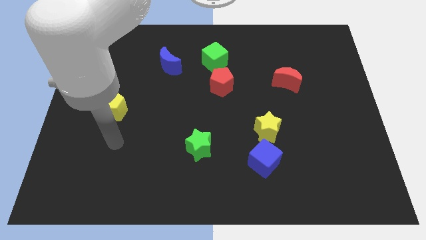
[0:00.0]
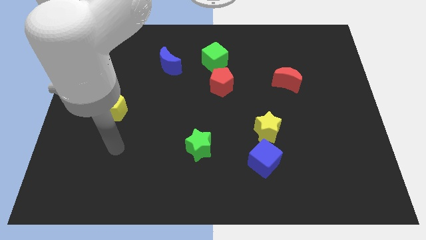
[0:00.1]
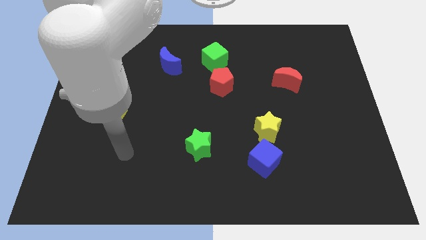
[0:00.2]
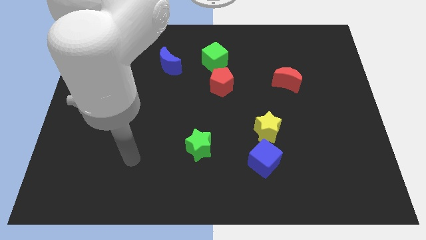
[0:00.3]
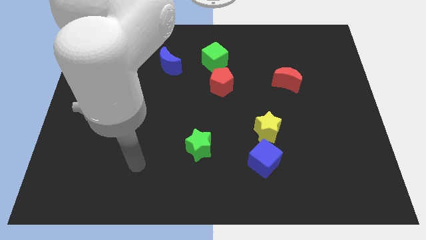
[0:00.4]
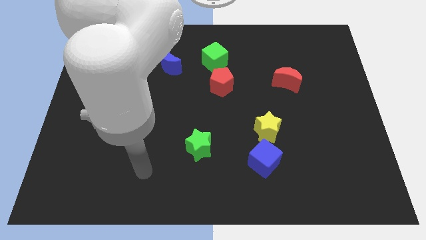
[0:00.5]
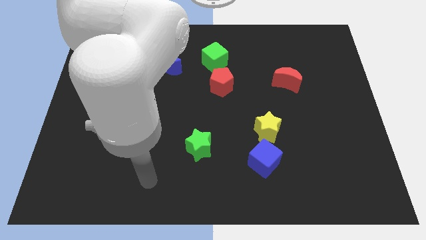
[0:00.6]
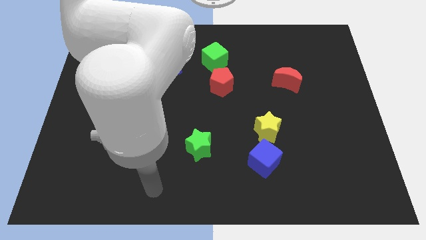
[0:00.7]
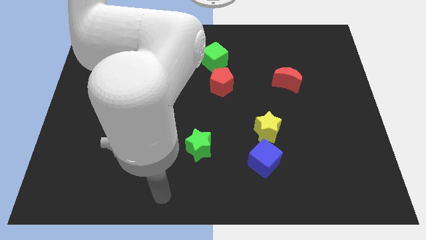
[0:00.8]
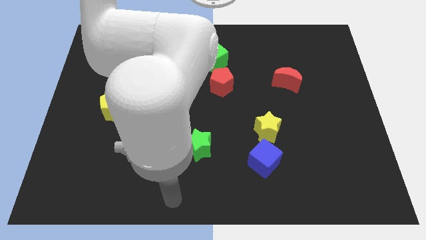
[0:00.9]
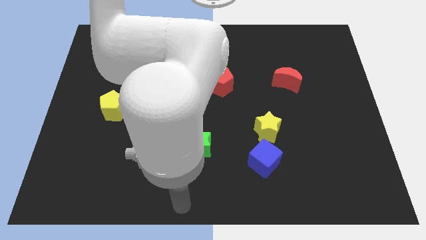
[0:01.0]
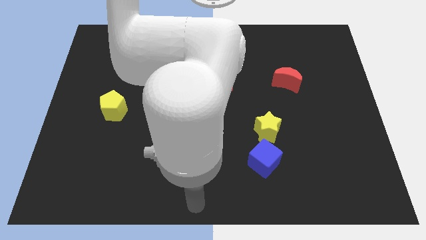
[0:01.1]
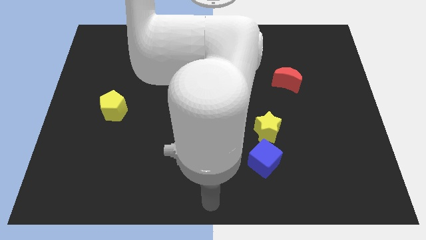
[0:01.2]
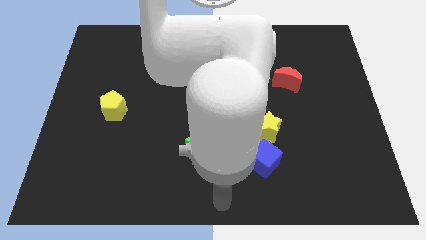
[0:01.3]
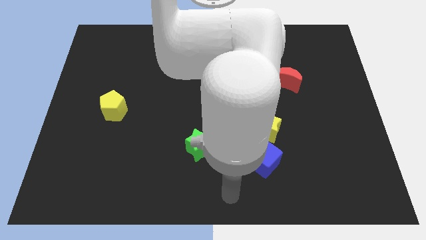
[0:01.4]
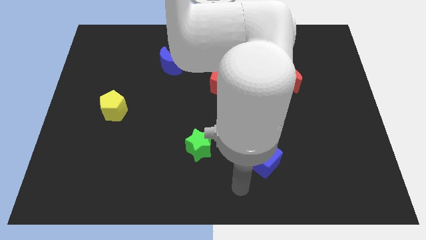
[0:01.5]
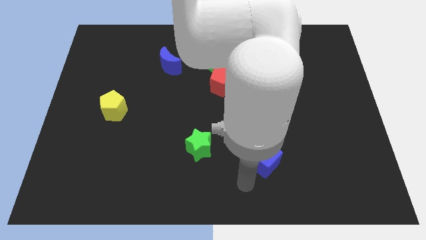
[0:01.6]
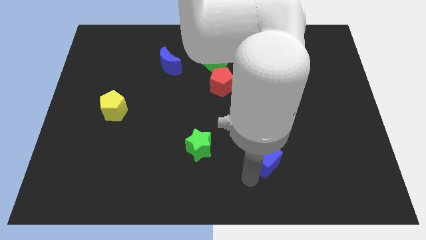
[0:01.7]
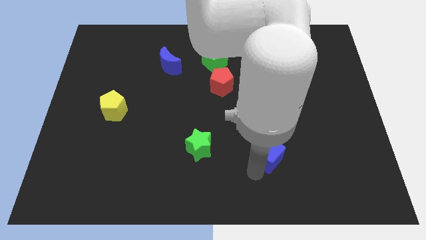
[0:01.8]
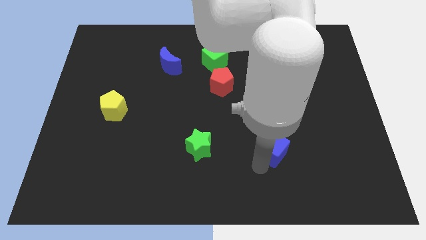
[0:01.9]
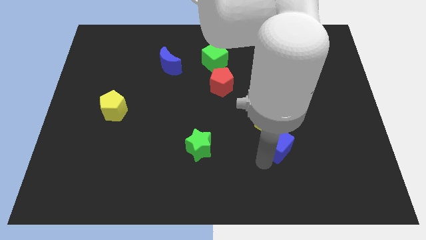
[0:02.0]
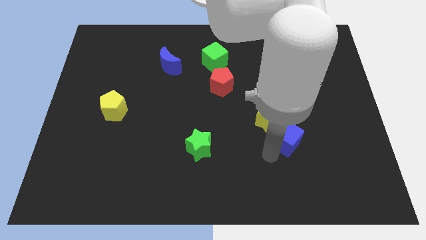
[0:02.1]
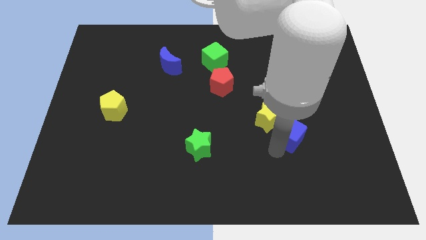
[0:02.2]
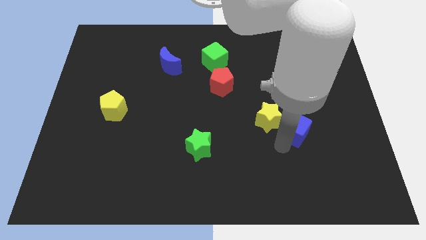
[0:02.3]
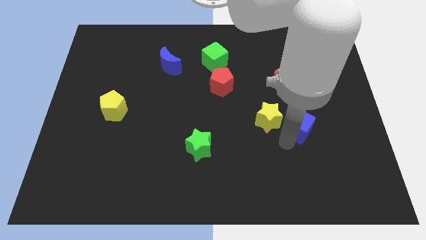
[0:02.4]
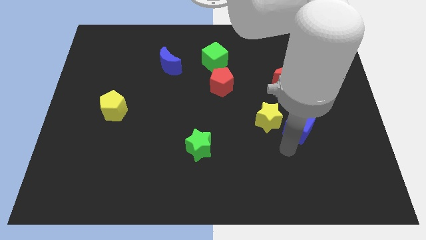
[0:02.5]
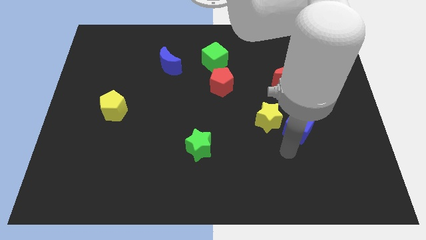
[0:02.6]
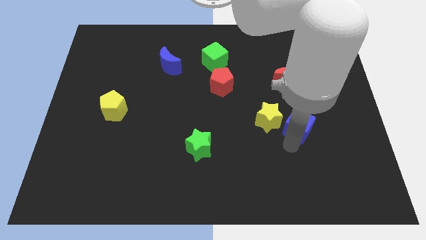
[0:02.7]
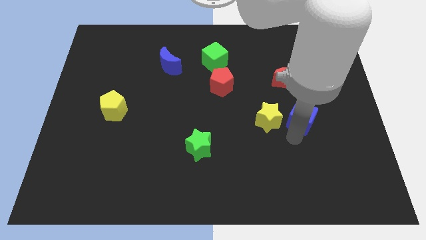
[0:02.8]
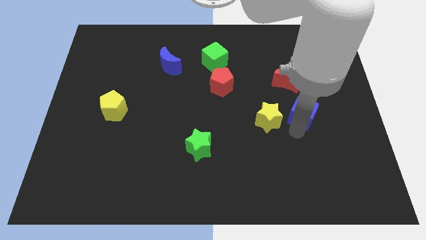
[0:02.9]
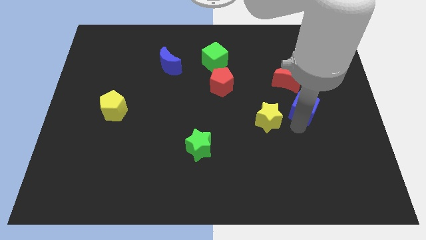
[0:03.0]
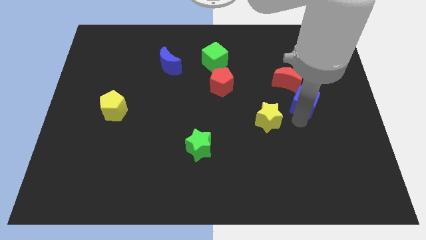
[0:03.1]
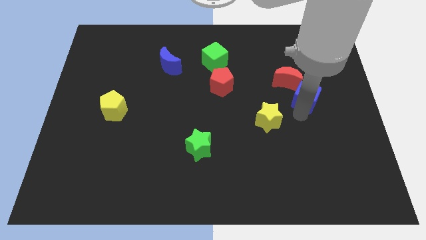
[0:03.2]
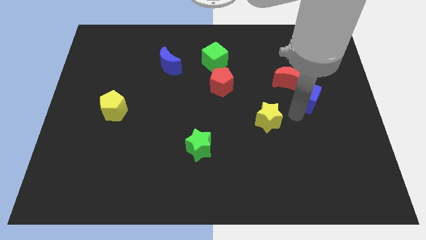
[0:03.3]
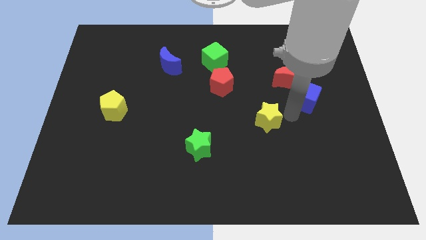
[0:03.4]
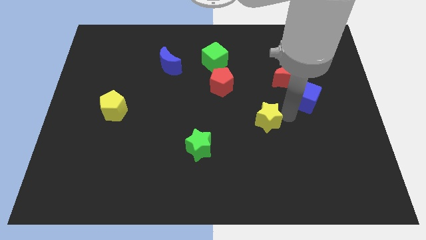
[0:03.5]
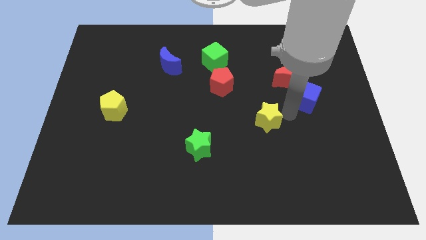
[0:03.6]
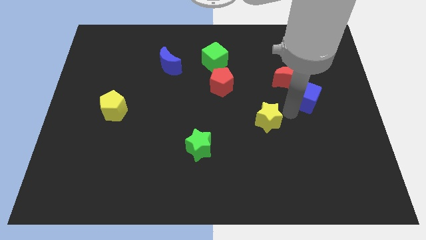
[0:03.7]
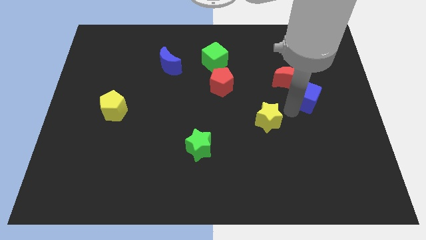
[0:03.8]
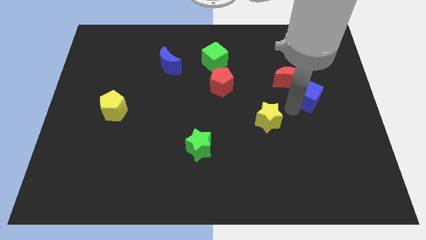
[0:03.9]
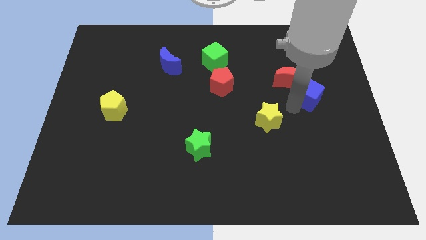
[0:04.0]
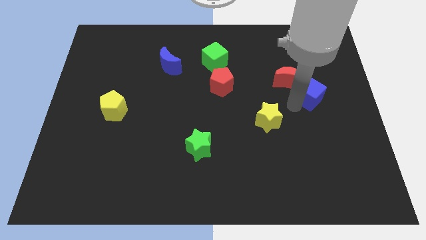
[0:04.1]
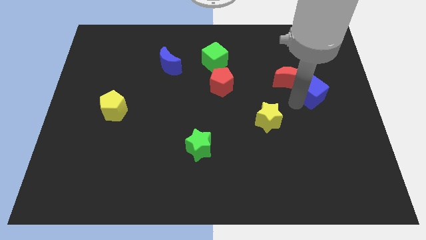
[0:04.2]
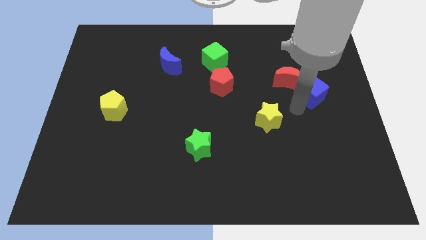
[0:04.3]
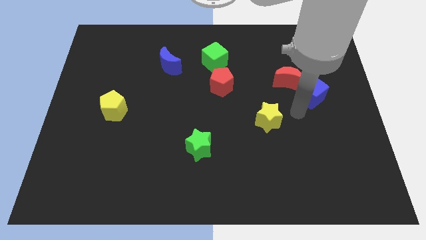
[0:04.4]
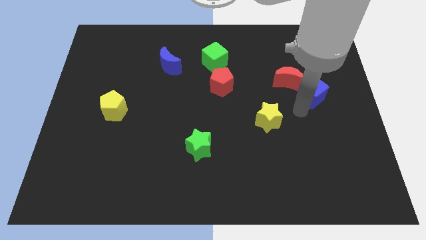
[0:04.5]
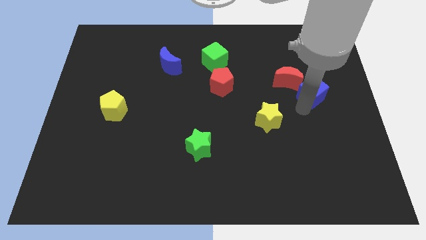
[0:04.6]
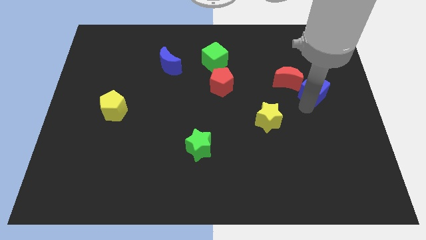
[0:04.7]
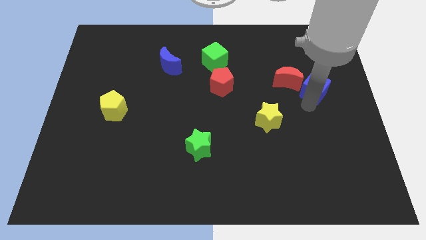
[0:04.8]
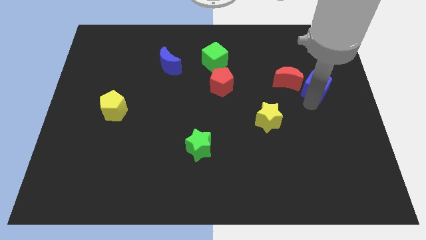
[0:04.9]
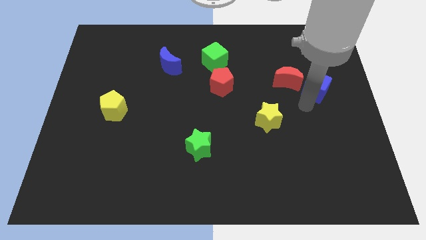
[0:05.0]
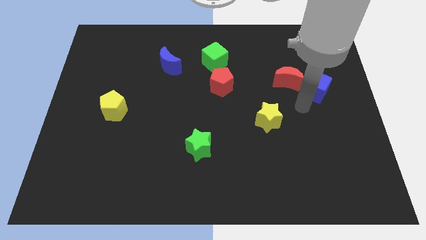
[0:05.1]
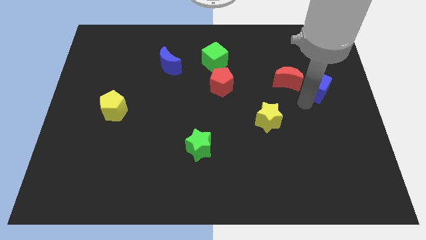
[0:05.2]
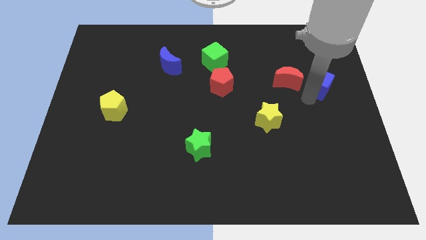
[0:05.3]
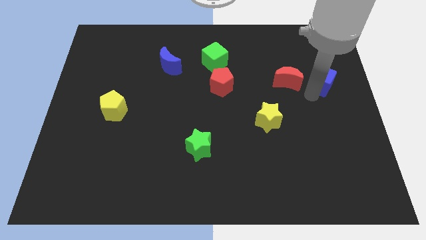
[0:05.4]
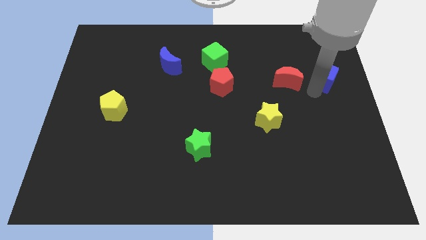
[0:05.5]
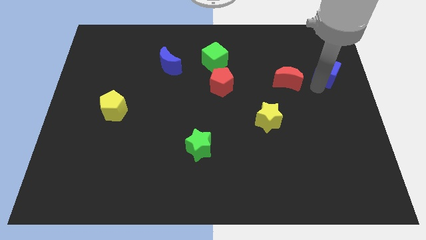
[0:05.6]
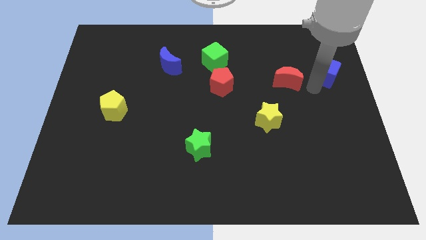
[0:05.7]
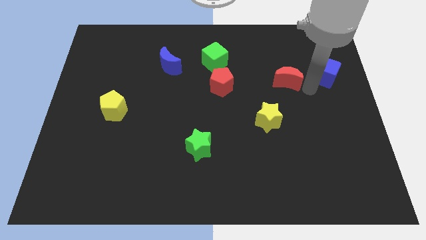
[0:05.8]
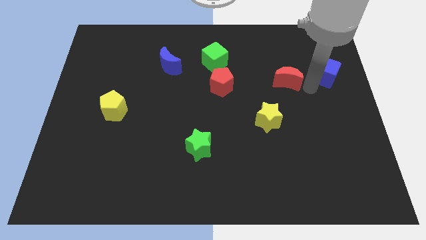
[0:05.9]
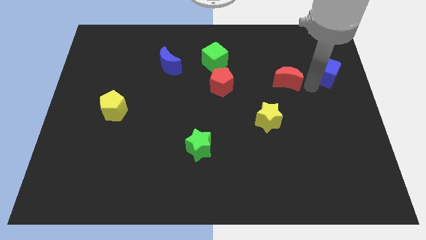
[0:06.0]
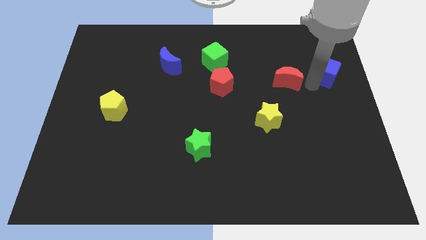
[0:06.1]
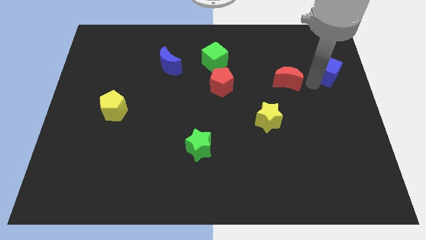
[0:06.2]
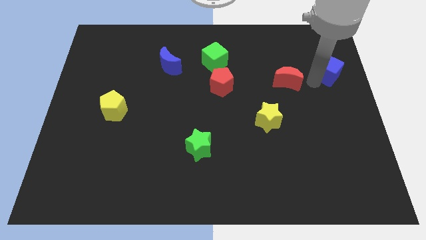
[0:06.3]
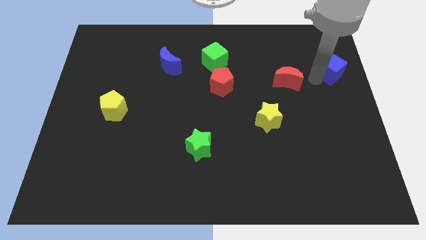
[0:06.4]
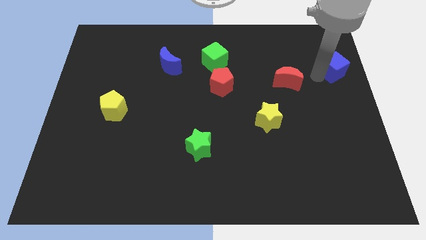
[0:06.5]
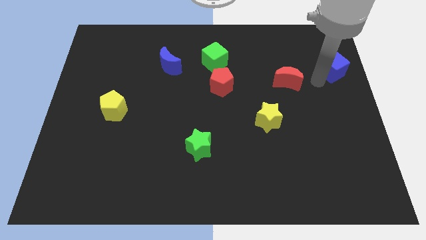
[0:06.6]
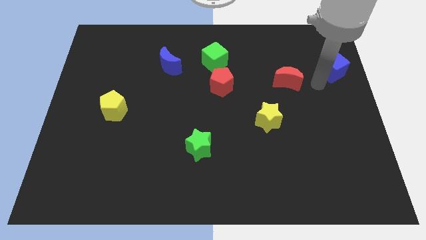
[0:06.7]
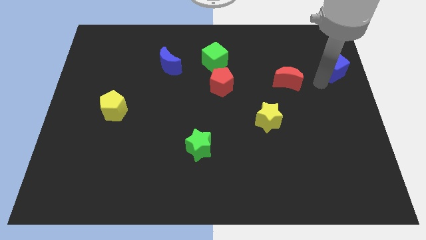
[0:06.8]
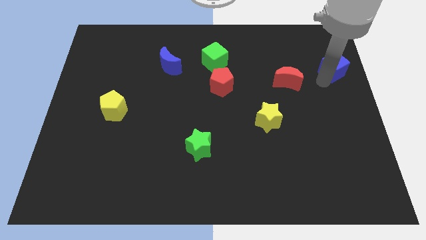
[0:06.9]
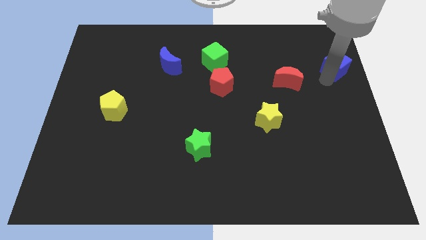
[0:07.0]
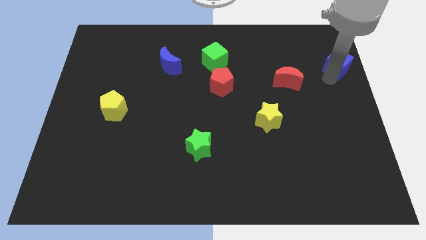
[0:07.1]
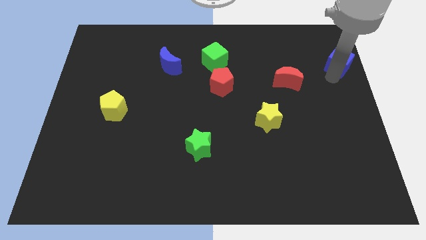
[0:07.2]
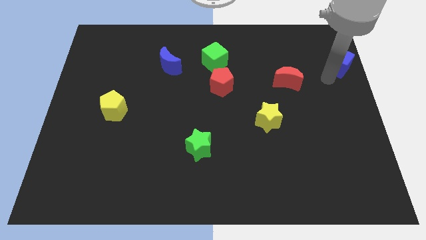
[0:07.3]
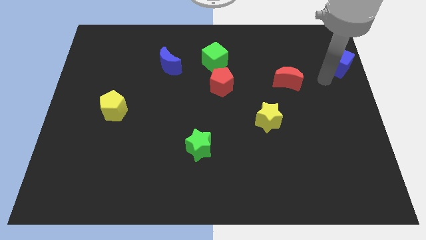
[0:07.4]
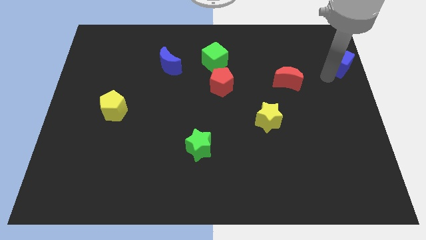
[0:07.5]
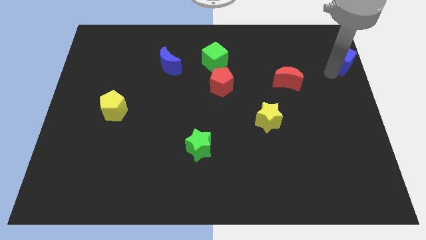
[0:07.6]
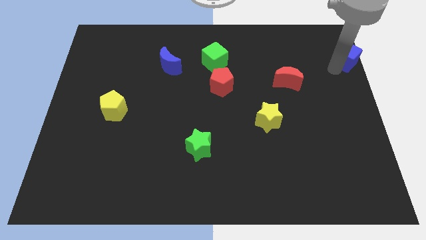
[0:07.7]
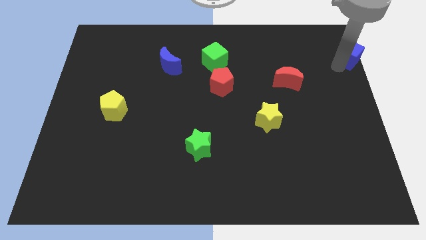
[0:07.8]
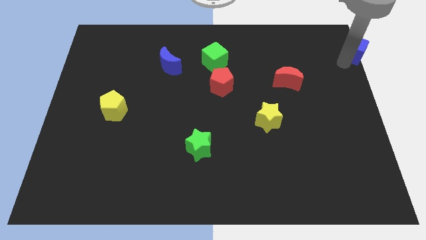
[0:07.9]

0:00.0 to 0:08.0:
push the blue cube to the top right of the board
